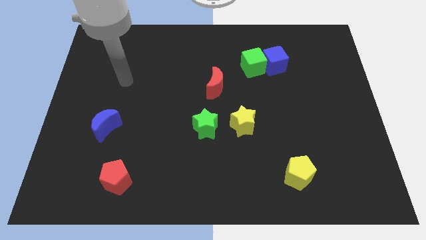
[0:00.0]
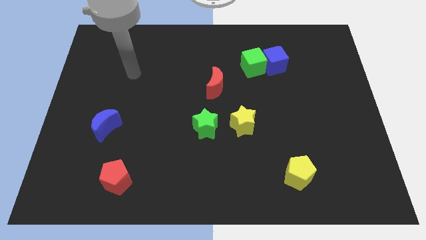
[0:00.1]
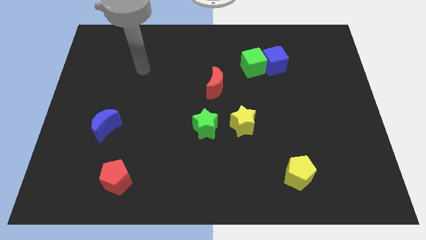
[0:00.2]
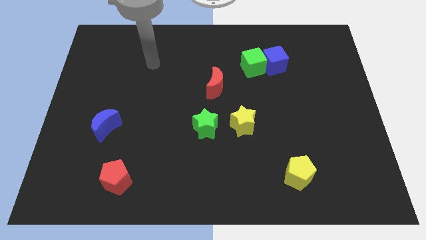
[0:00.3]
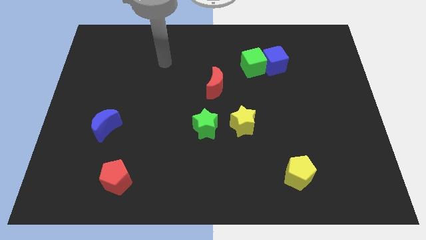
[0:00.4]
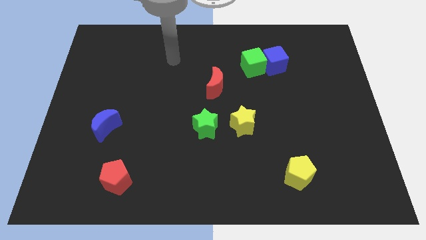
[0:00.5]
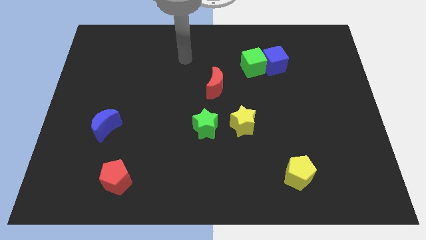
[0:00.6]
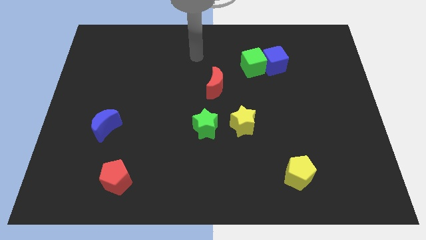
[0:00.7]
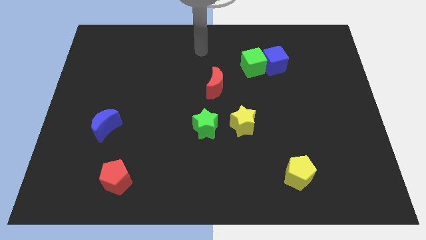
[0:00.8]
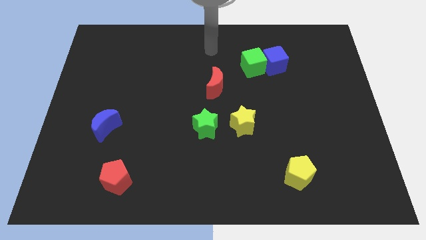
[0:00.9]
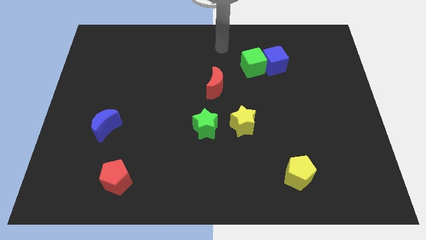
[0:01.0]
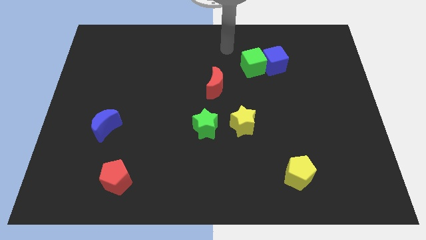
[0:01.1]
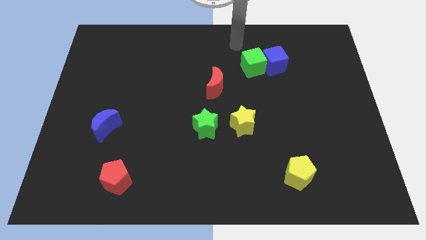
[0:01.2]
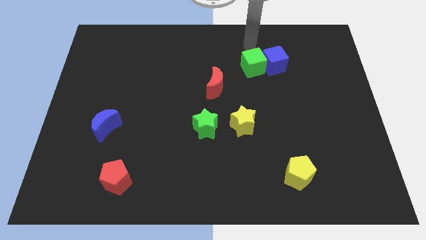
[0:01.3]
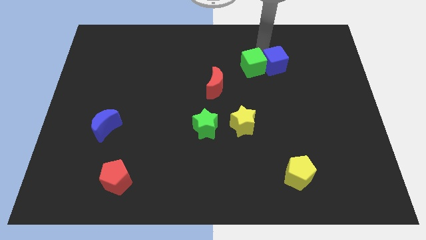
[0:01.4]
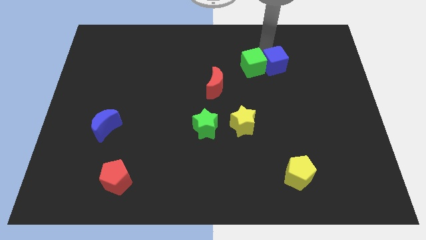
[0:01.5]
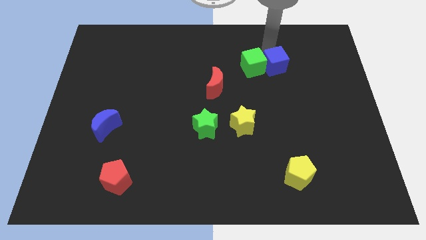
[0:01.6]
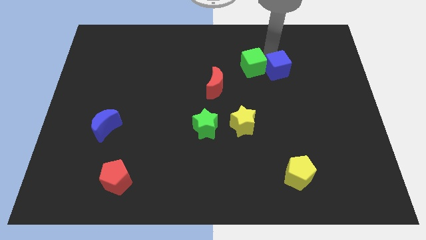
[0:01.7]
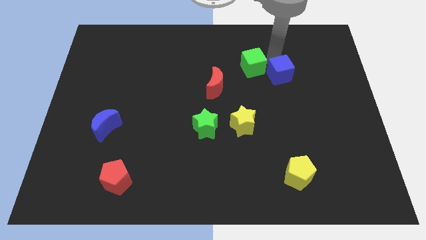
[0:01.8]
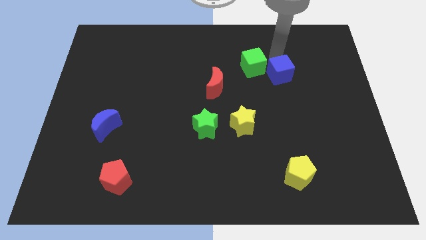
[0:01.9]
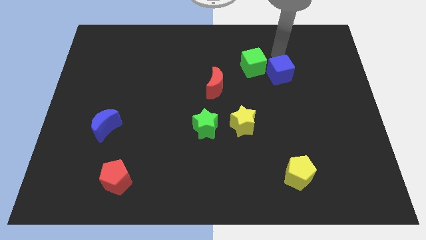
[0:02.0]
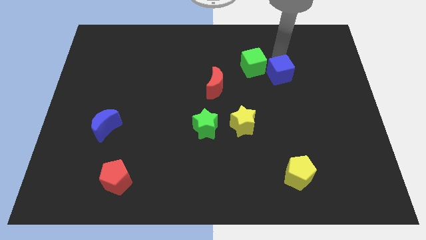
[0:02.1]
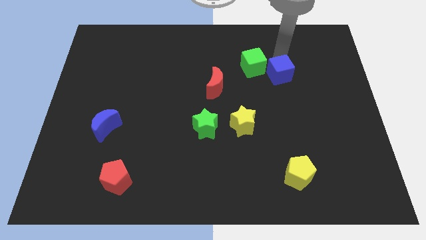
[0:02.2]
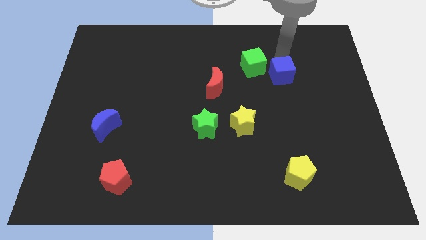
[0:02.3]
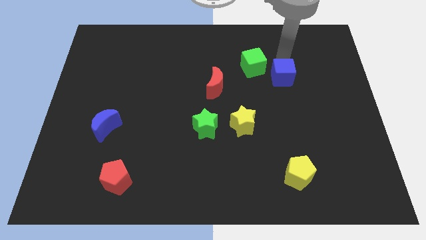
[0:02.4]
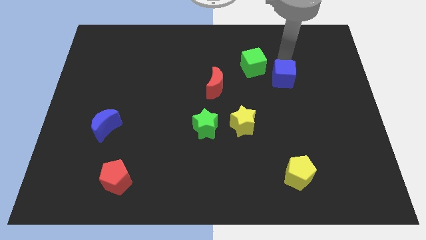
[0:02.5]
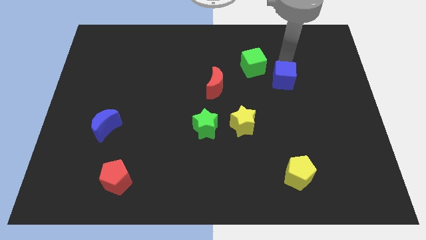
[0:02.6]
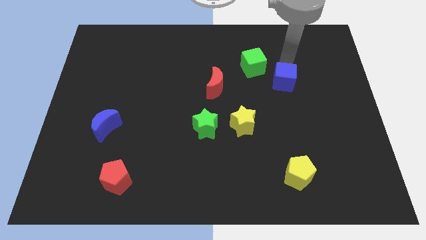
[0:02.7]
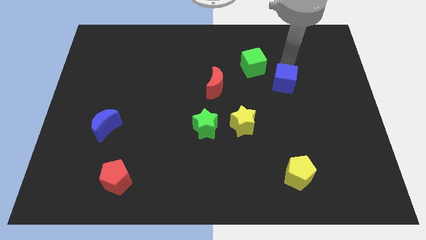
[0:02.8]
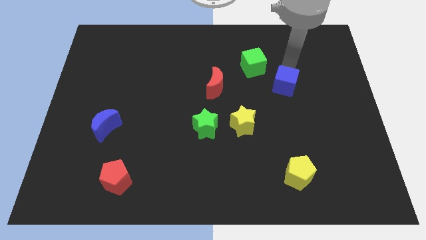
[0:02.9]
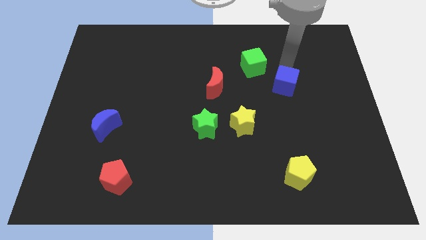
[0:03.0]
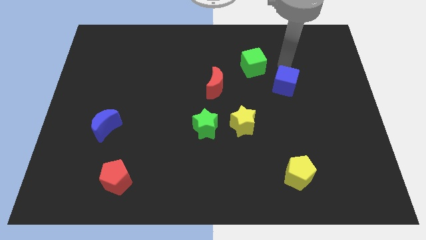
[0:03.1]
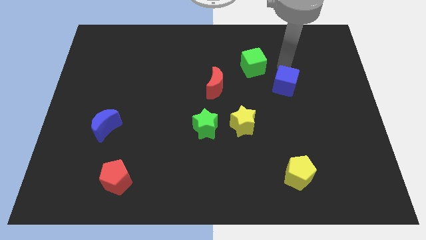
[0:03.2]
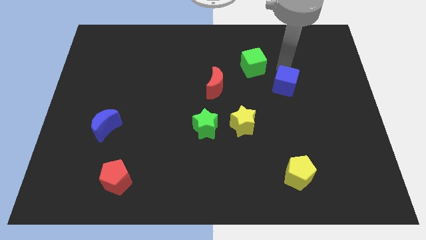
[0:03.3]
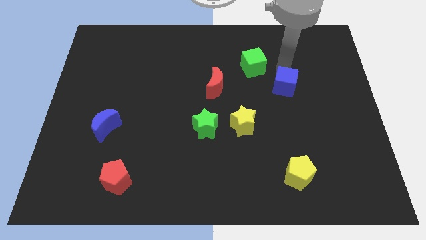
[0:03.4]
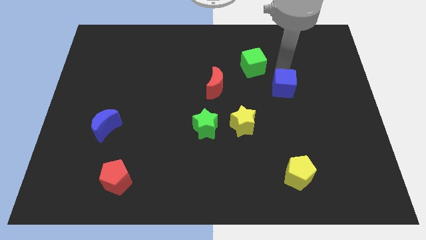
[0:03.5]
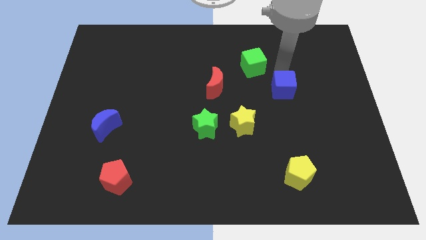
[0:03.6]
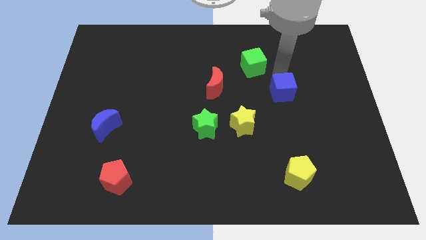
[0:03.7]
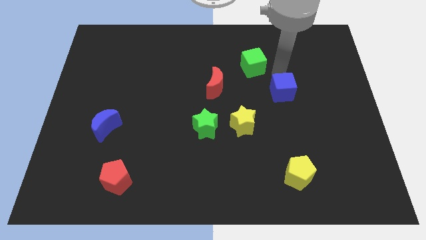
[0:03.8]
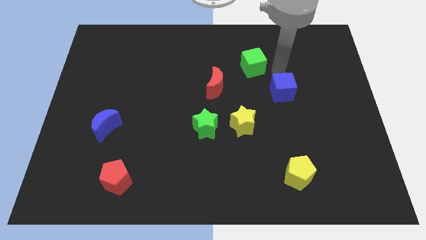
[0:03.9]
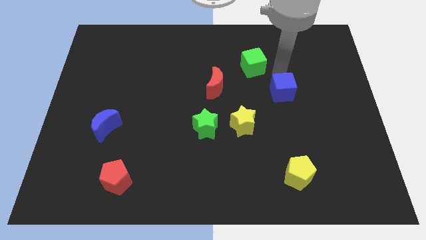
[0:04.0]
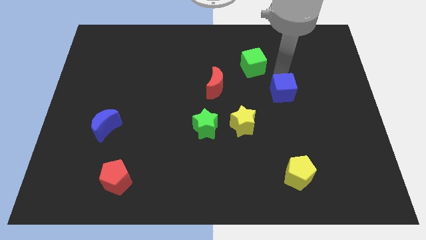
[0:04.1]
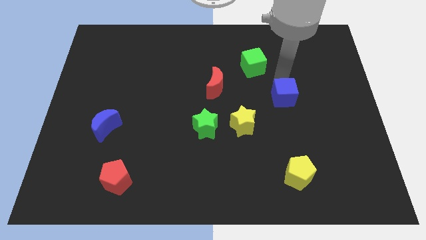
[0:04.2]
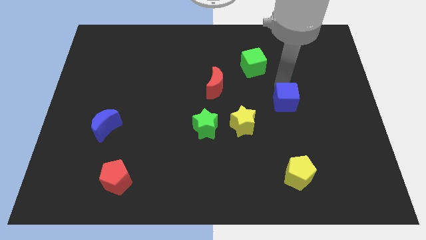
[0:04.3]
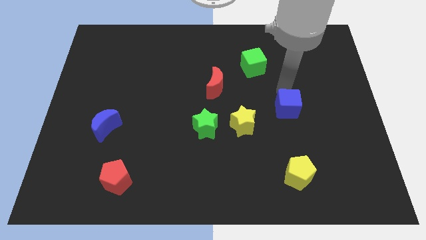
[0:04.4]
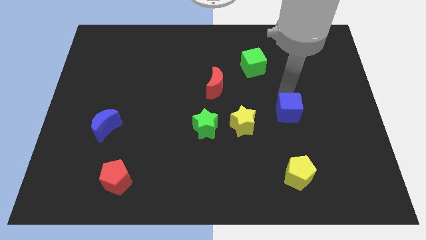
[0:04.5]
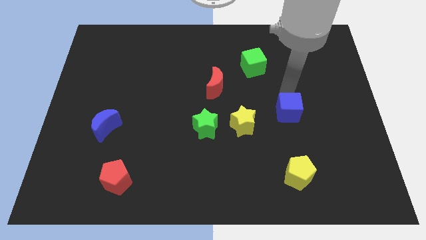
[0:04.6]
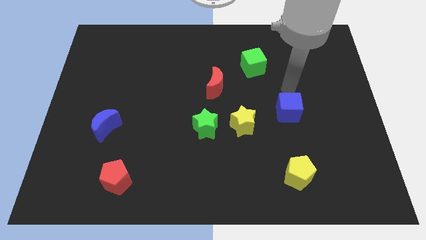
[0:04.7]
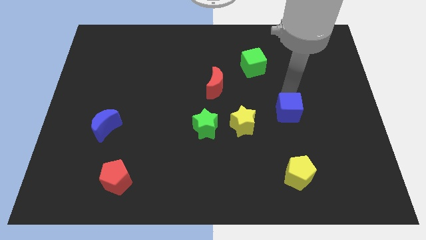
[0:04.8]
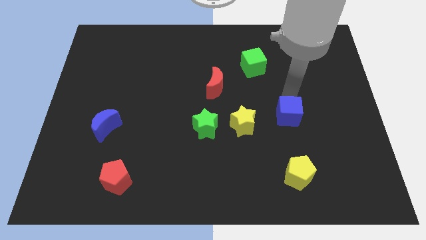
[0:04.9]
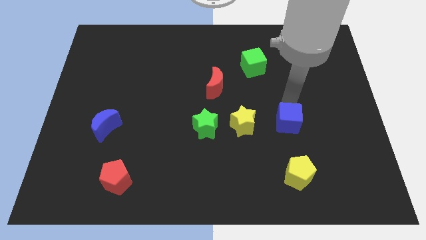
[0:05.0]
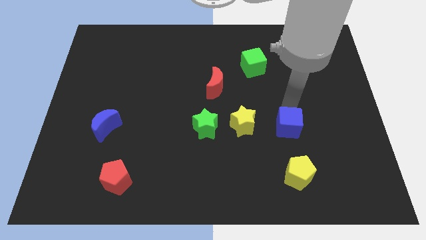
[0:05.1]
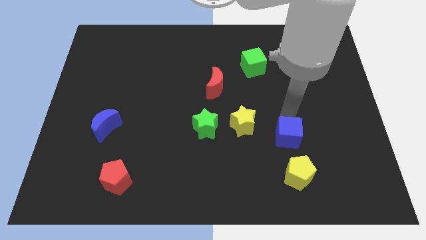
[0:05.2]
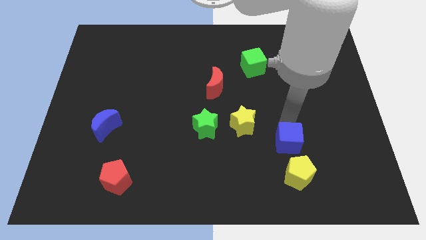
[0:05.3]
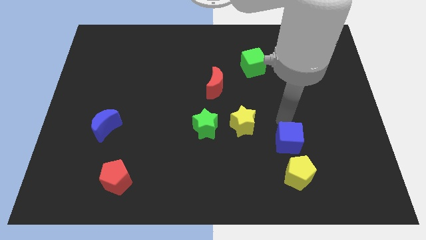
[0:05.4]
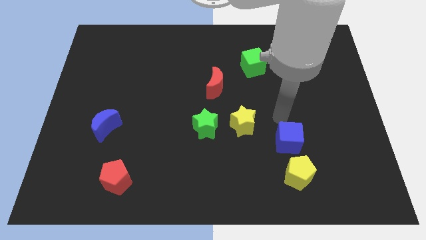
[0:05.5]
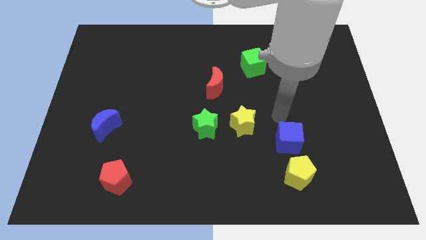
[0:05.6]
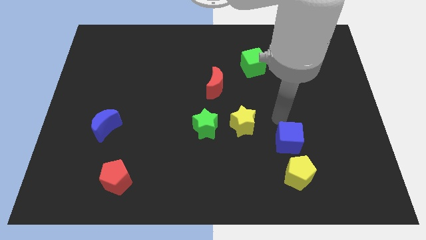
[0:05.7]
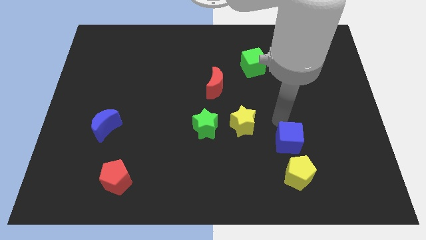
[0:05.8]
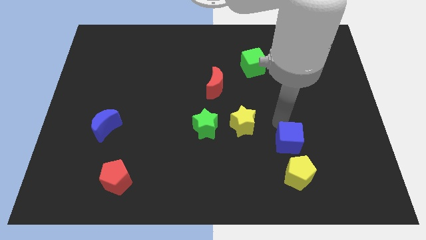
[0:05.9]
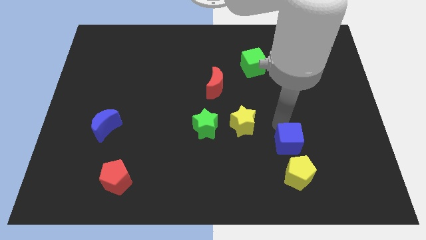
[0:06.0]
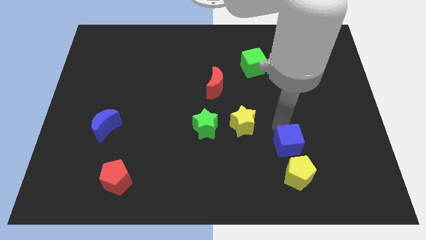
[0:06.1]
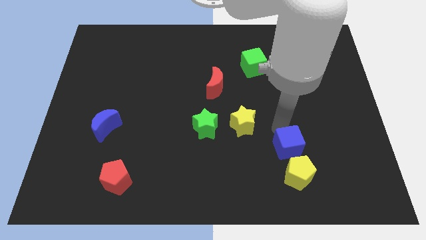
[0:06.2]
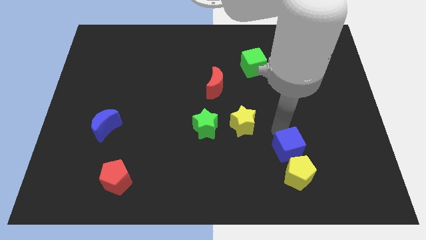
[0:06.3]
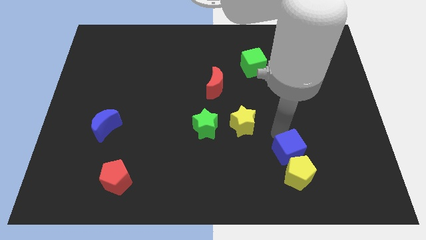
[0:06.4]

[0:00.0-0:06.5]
move the blue cube to the yellow pentagon

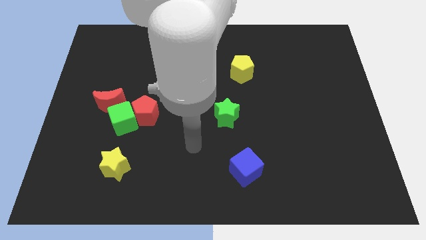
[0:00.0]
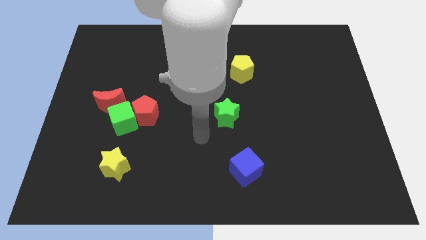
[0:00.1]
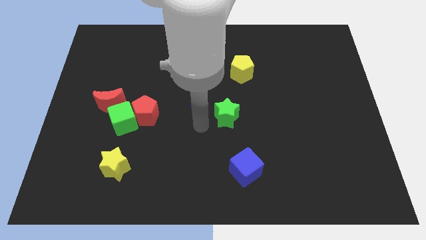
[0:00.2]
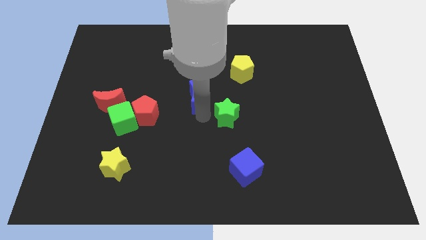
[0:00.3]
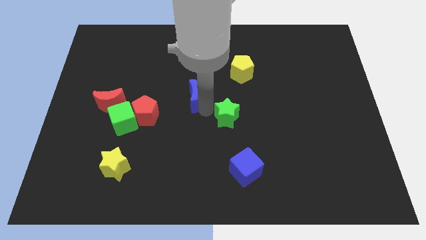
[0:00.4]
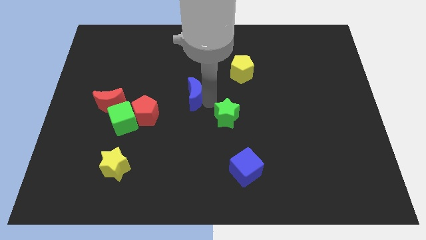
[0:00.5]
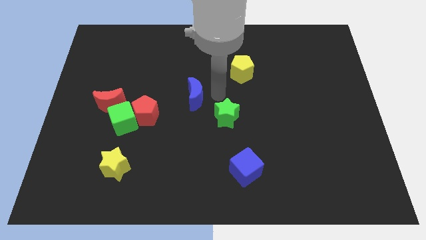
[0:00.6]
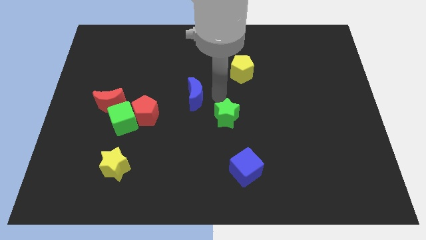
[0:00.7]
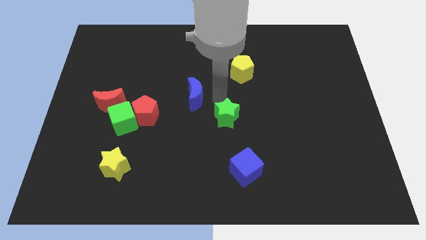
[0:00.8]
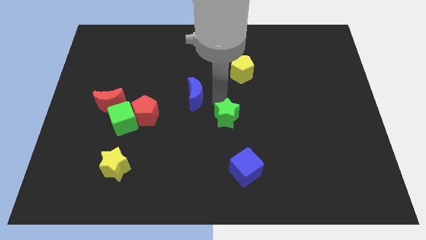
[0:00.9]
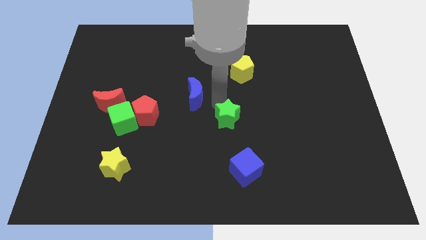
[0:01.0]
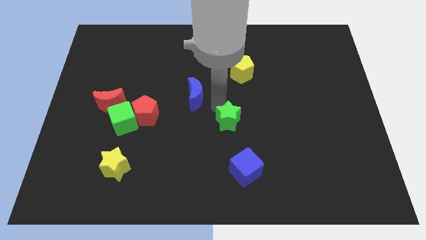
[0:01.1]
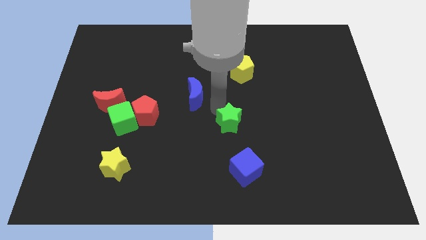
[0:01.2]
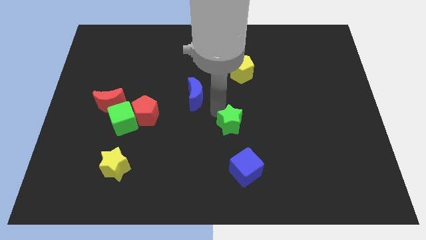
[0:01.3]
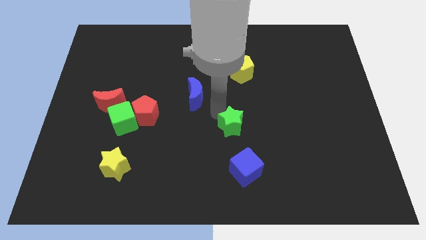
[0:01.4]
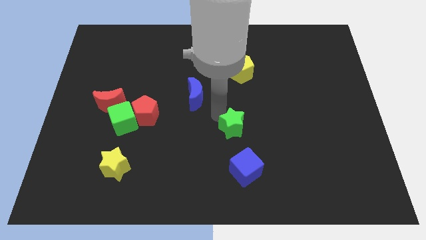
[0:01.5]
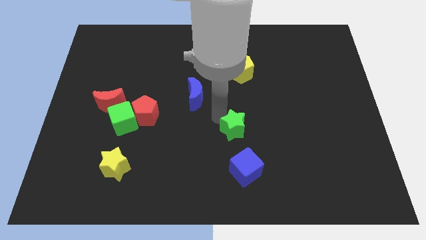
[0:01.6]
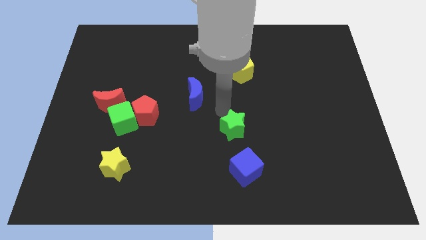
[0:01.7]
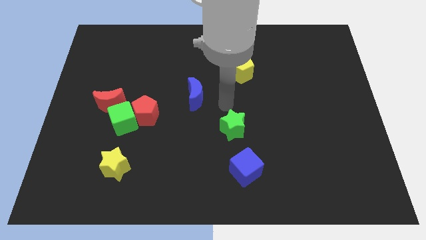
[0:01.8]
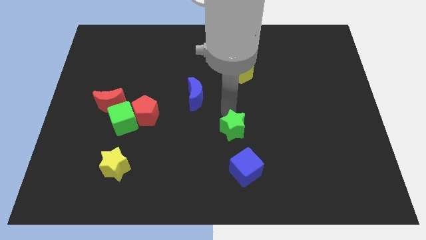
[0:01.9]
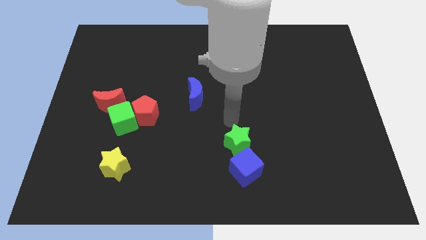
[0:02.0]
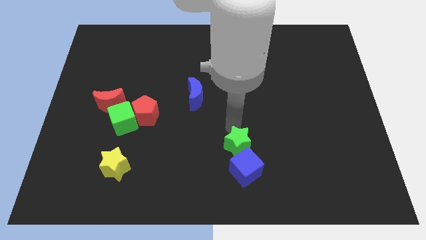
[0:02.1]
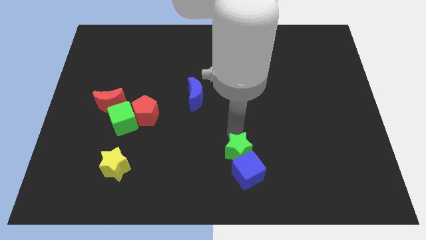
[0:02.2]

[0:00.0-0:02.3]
slide the green star to the blue cube
